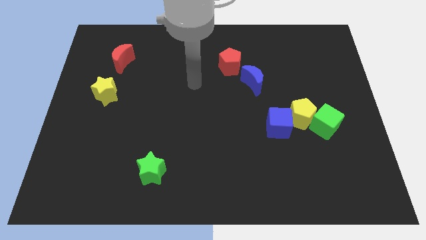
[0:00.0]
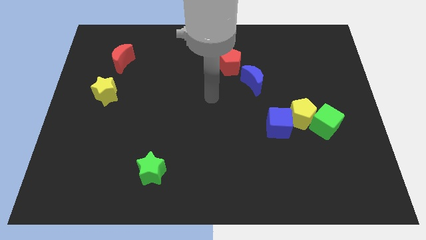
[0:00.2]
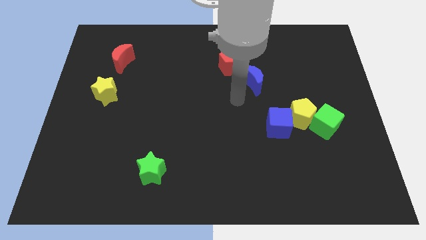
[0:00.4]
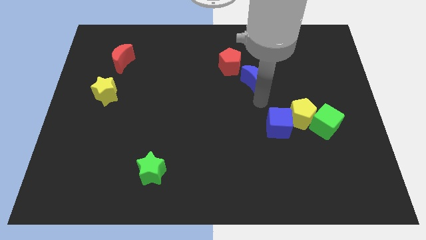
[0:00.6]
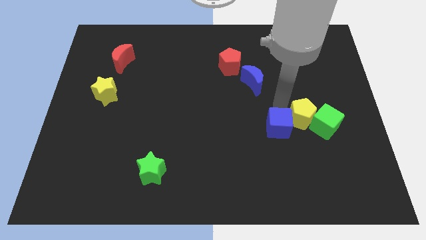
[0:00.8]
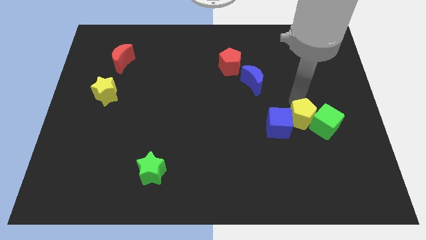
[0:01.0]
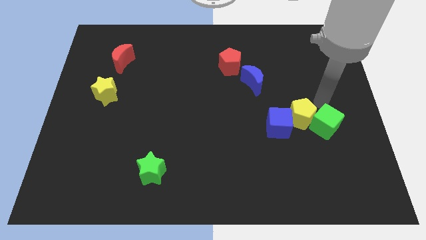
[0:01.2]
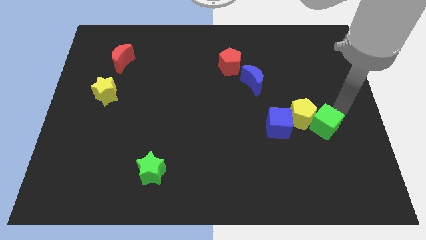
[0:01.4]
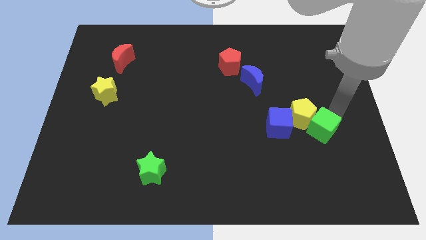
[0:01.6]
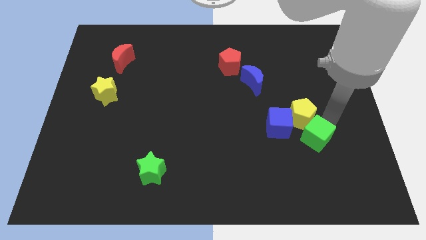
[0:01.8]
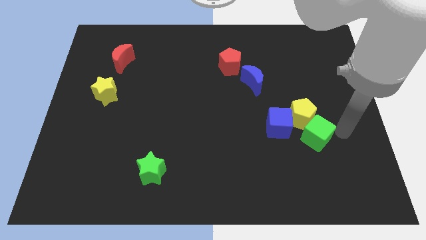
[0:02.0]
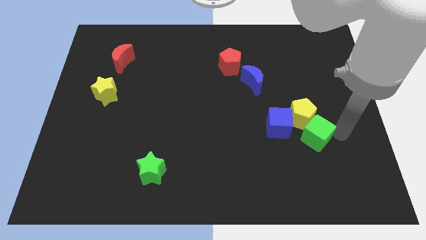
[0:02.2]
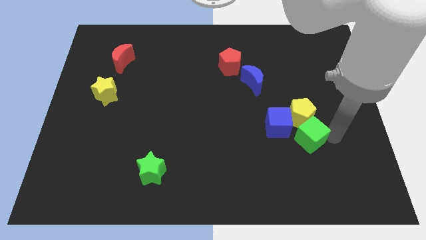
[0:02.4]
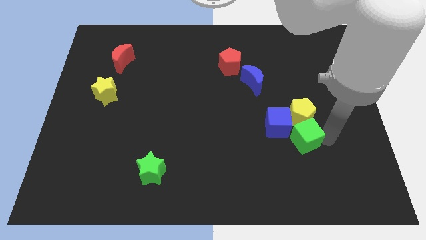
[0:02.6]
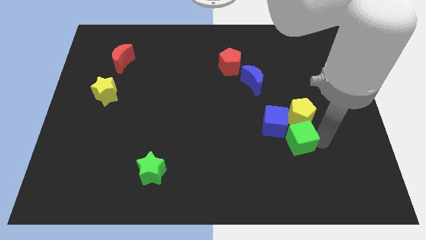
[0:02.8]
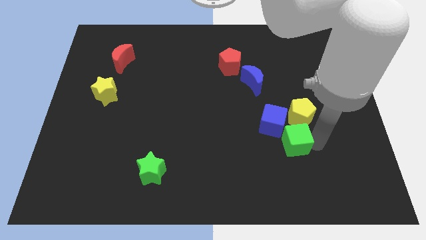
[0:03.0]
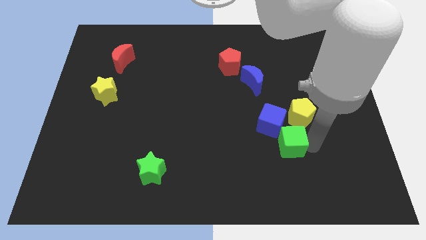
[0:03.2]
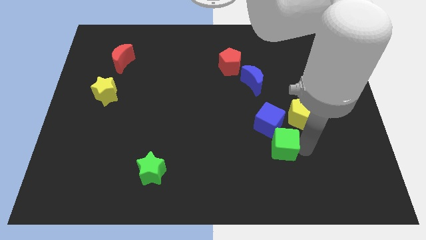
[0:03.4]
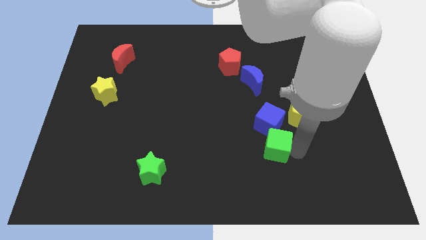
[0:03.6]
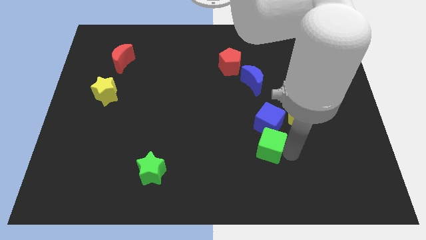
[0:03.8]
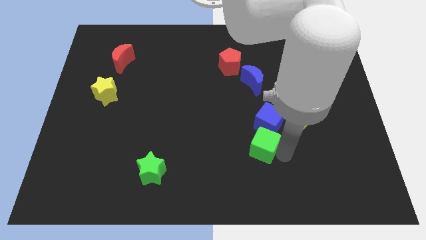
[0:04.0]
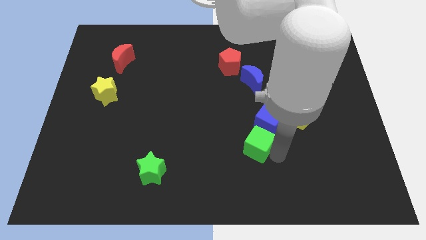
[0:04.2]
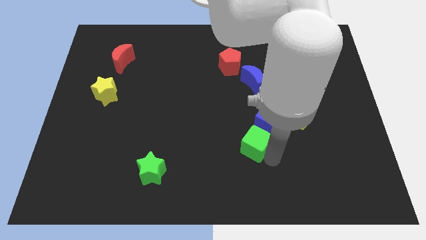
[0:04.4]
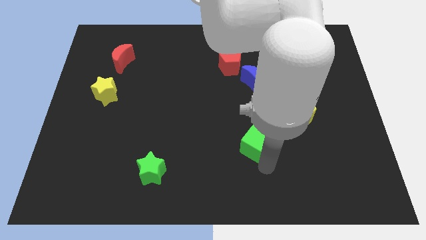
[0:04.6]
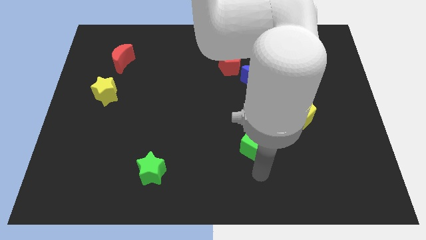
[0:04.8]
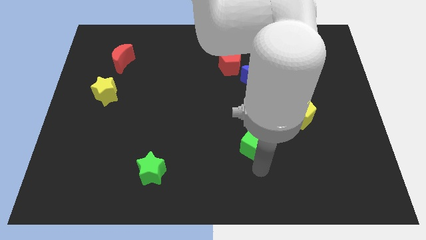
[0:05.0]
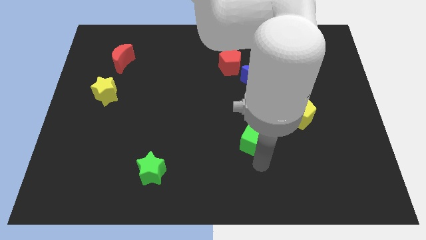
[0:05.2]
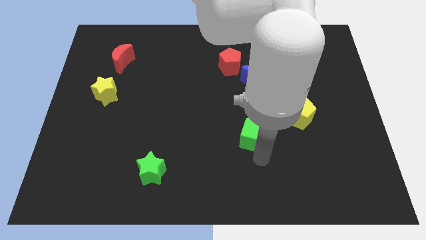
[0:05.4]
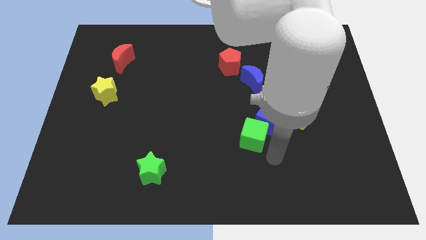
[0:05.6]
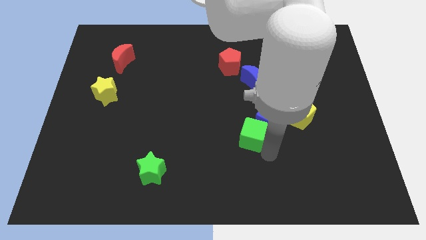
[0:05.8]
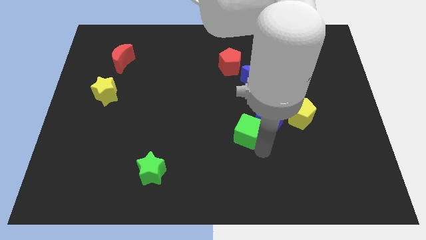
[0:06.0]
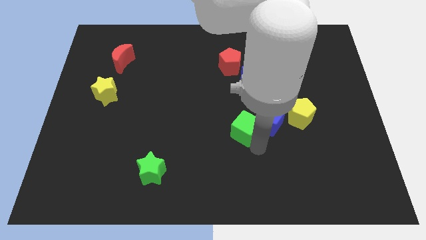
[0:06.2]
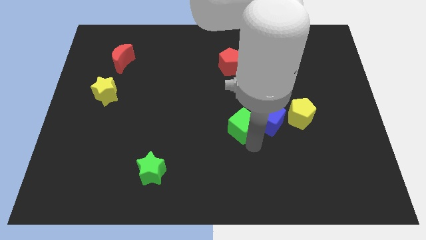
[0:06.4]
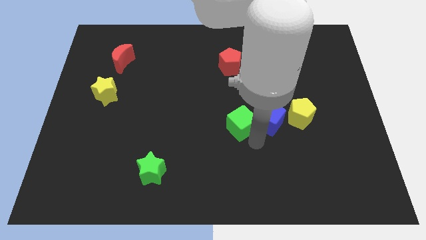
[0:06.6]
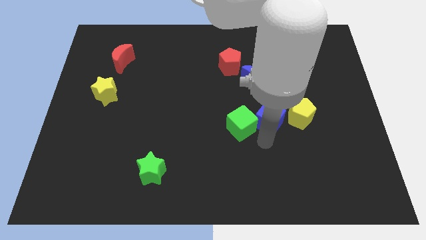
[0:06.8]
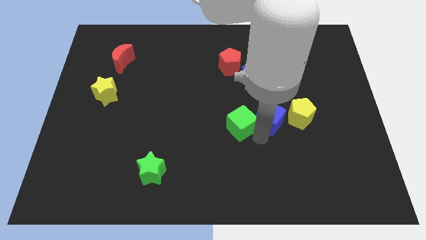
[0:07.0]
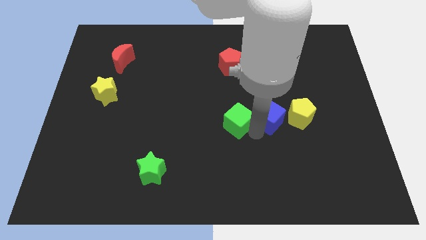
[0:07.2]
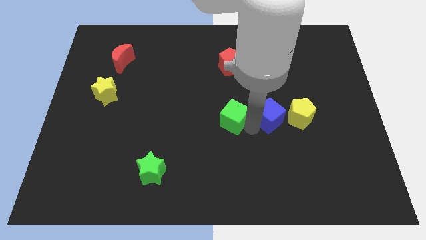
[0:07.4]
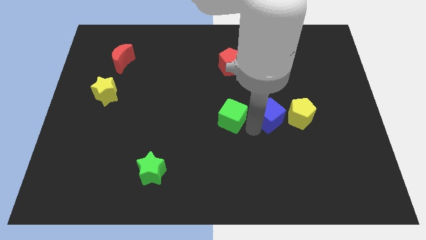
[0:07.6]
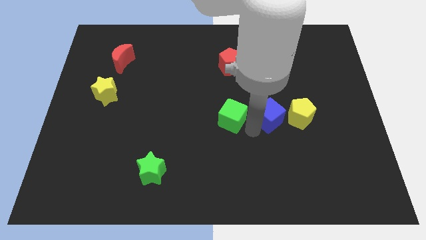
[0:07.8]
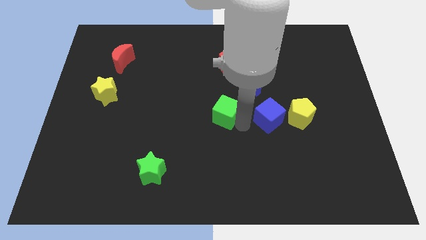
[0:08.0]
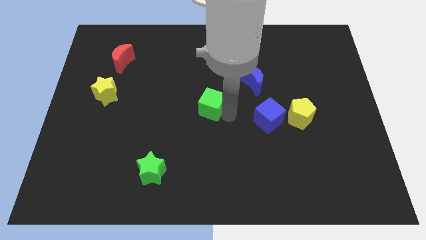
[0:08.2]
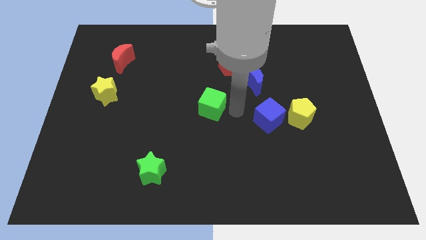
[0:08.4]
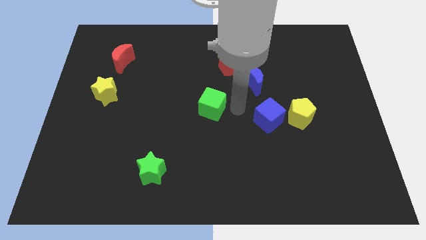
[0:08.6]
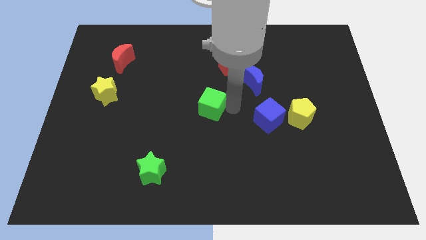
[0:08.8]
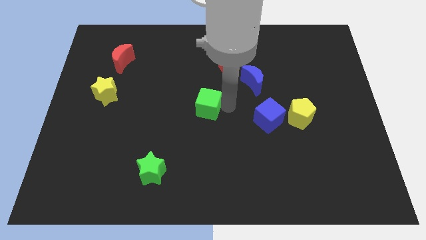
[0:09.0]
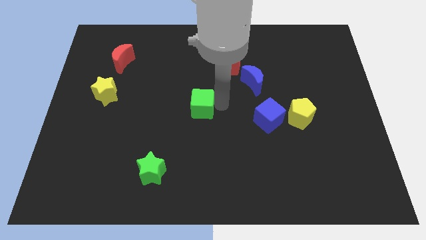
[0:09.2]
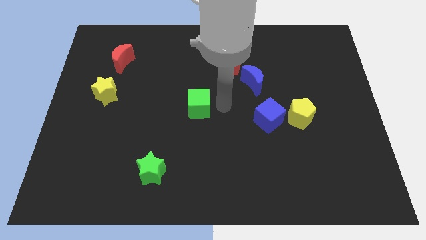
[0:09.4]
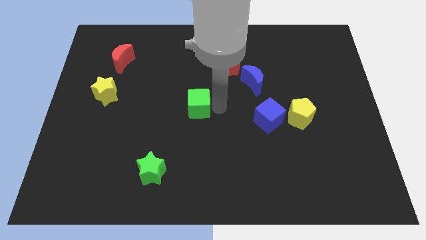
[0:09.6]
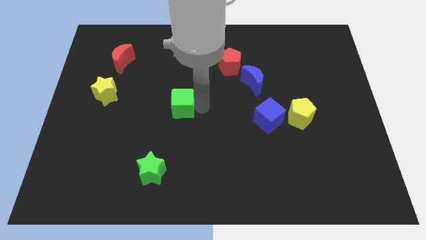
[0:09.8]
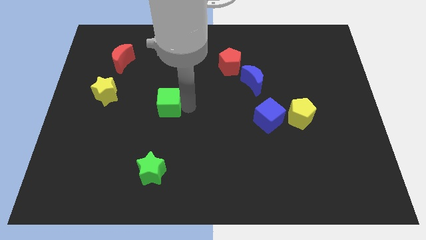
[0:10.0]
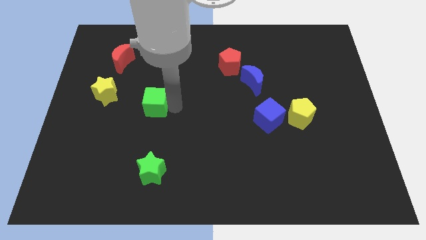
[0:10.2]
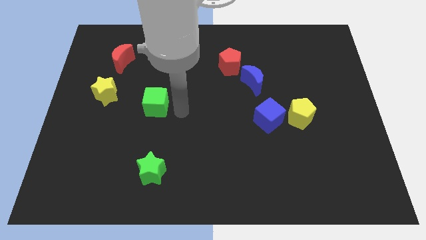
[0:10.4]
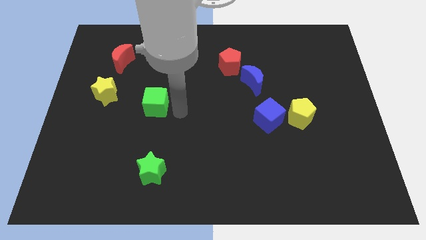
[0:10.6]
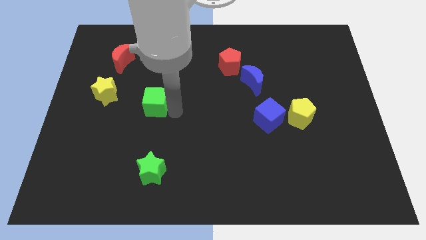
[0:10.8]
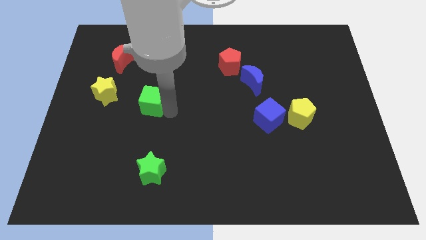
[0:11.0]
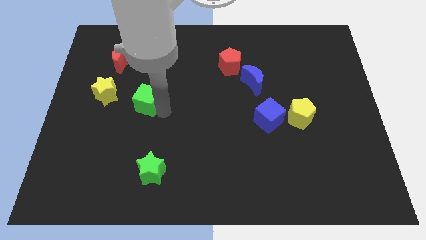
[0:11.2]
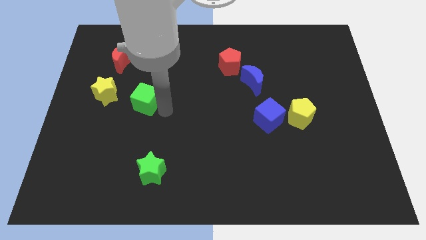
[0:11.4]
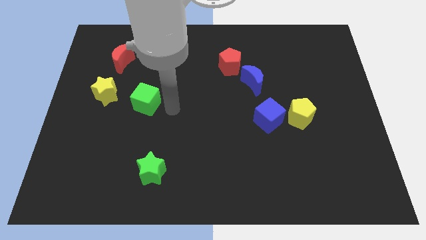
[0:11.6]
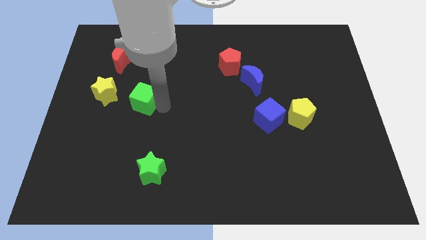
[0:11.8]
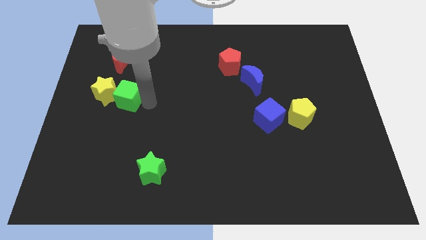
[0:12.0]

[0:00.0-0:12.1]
put the green cube towards the yellow star
